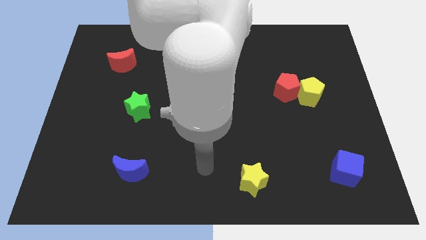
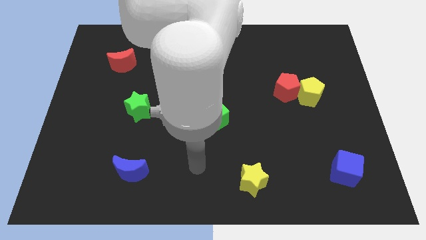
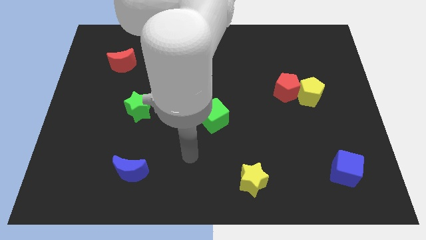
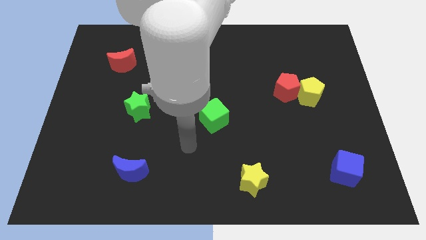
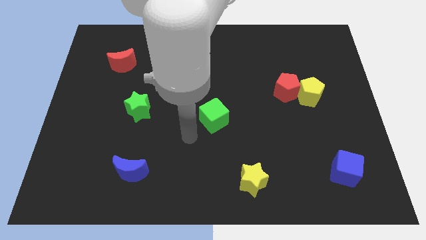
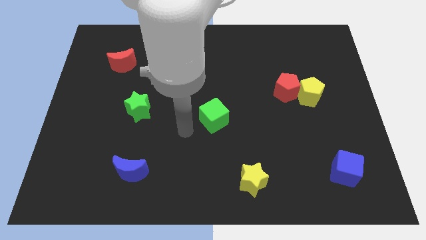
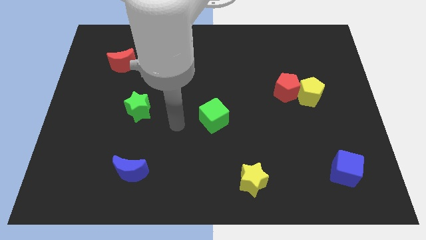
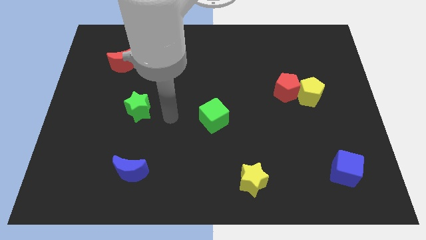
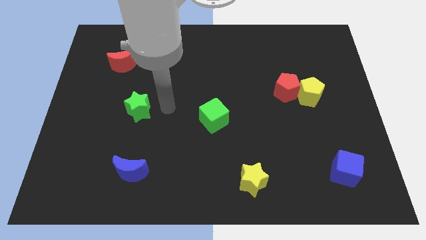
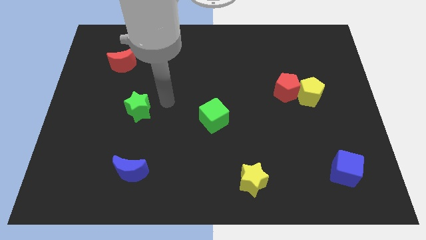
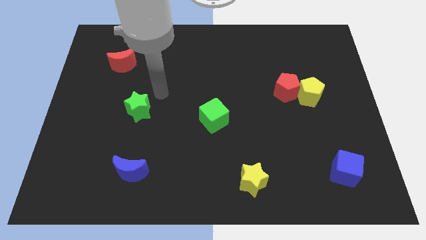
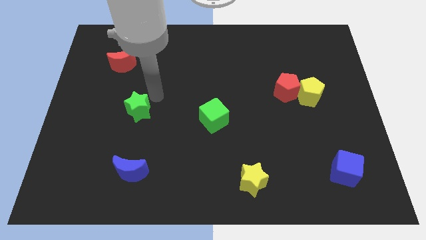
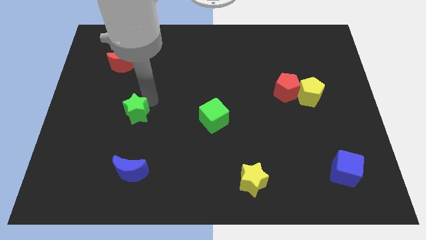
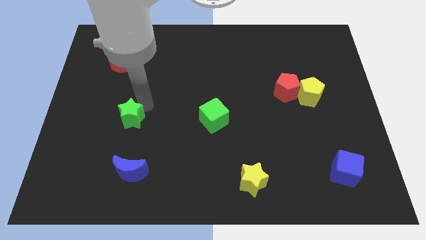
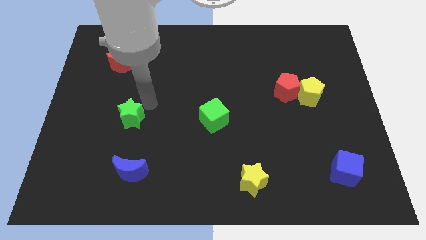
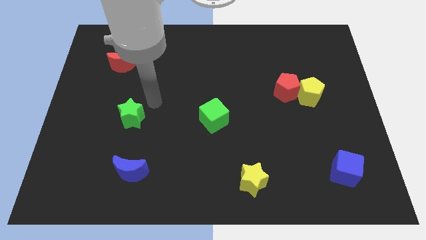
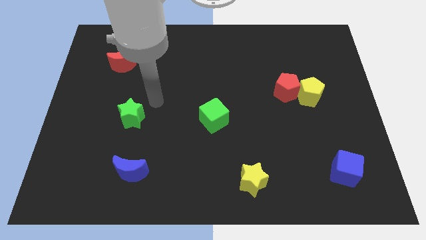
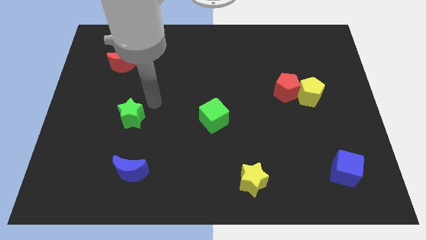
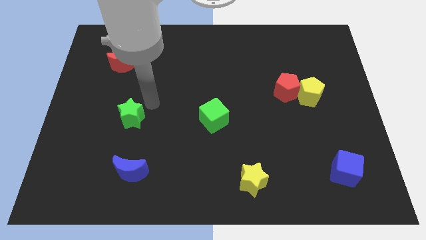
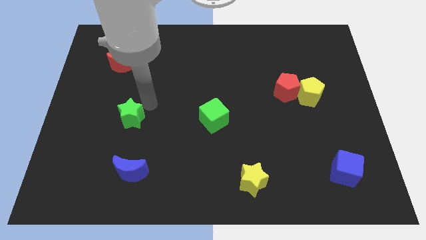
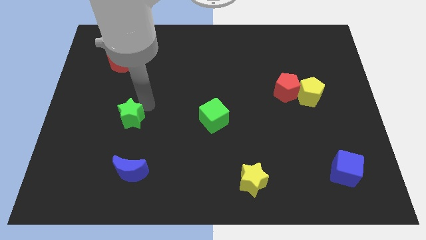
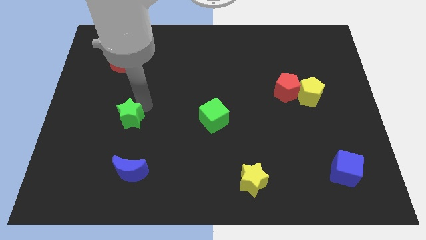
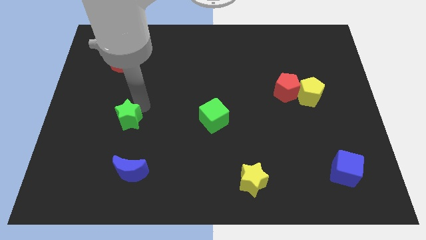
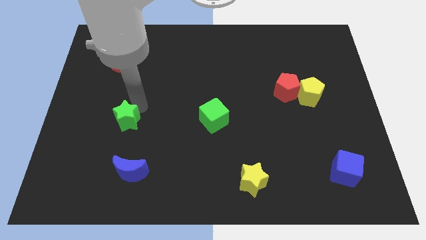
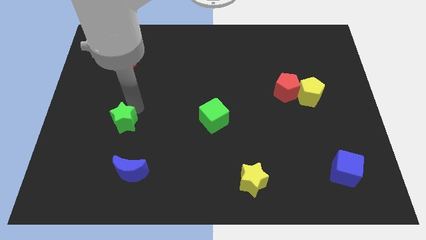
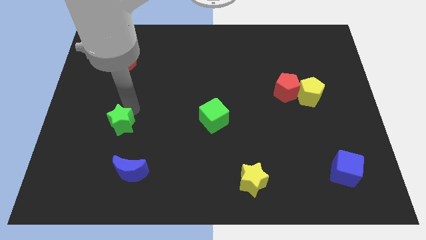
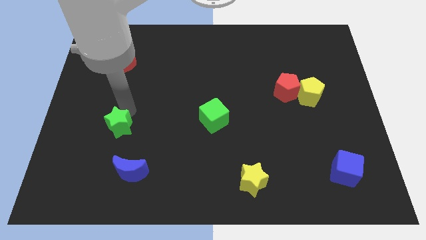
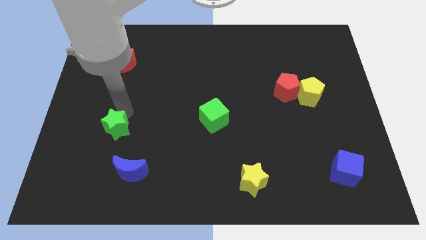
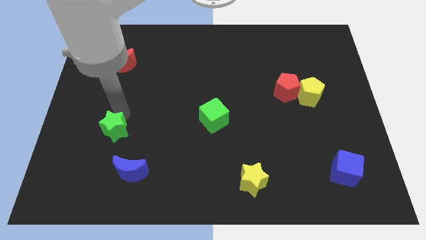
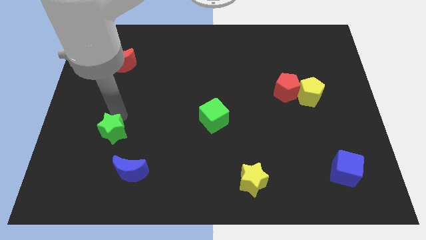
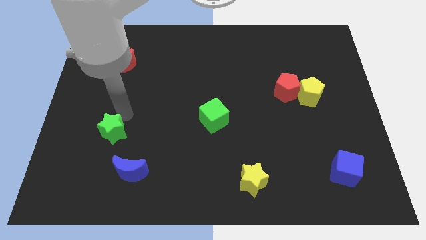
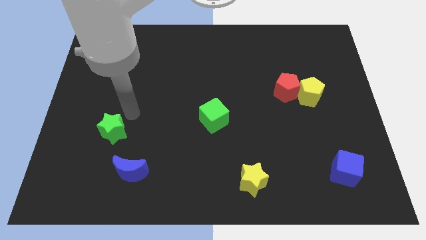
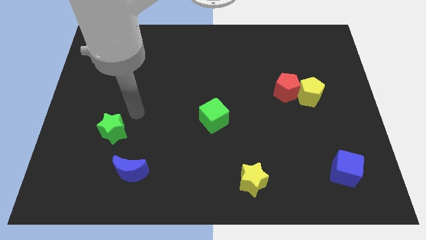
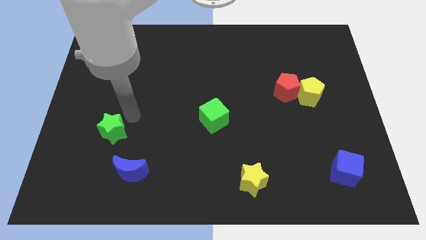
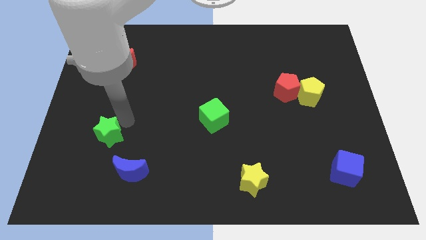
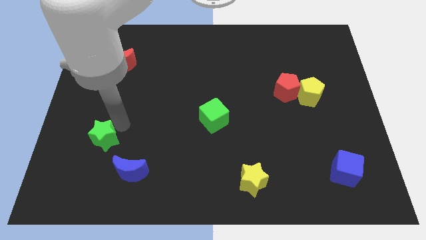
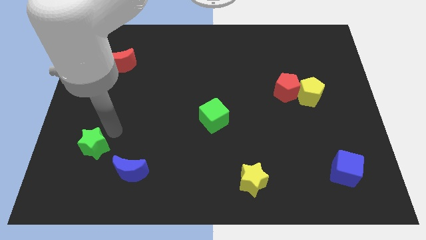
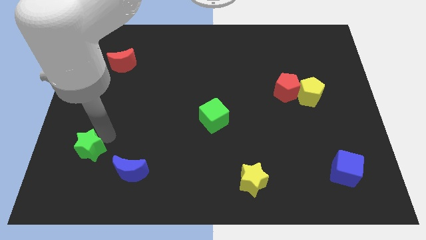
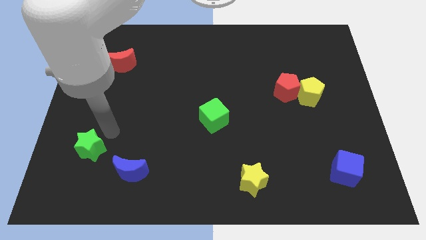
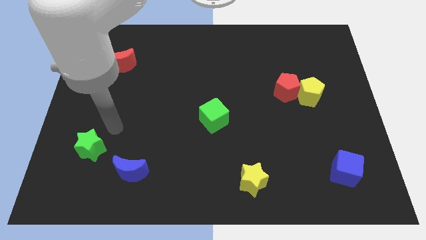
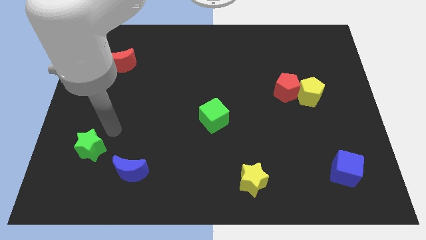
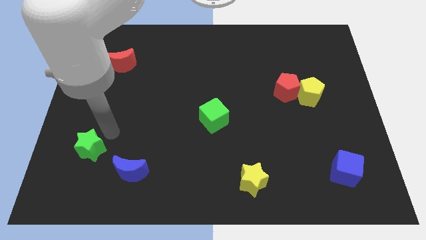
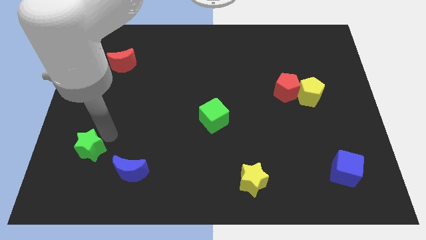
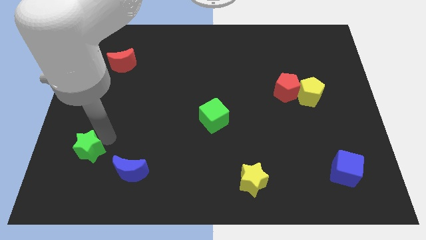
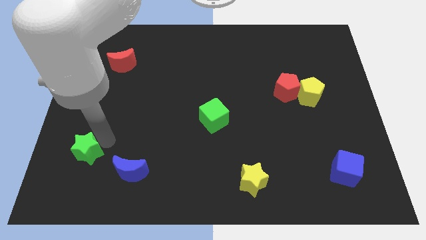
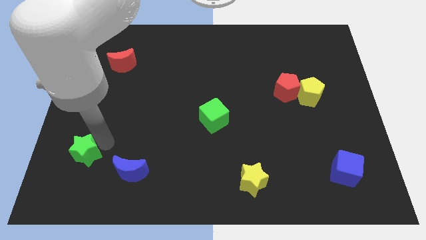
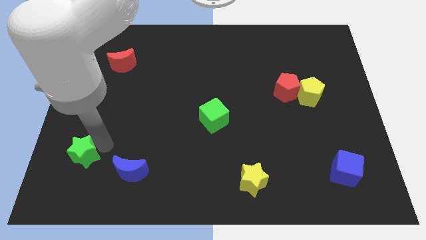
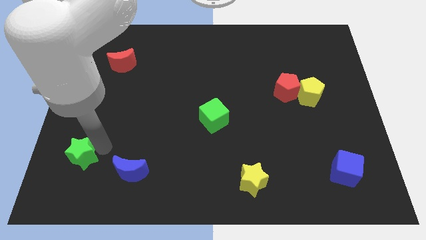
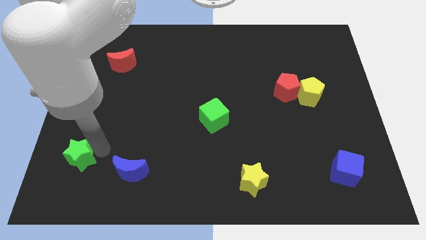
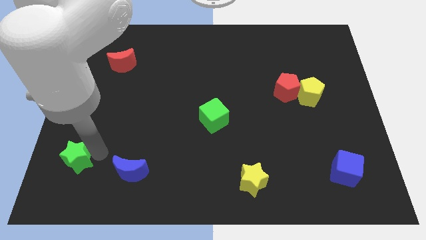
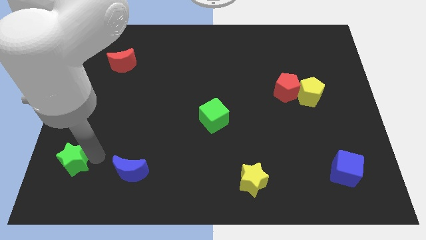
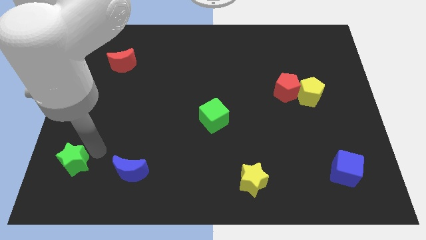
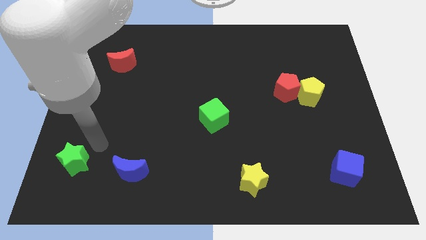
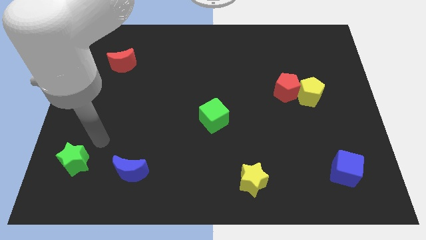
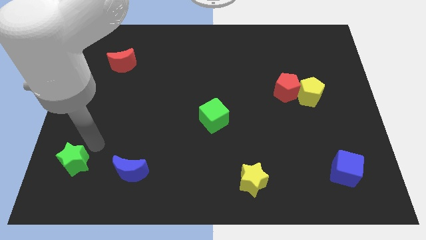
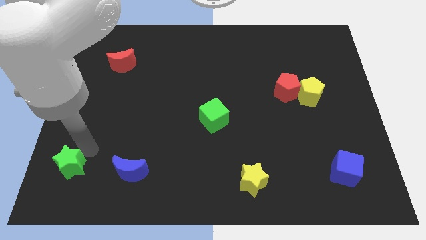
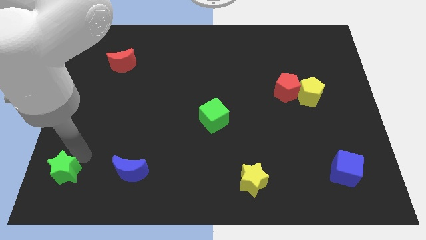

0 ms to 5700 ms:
move the green star to the bottom left of the board

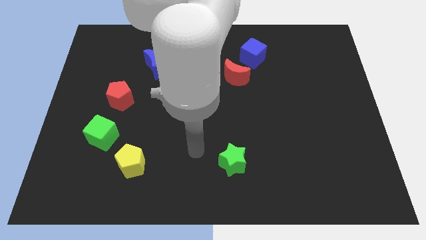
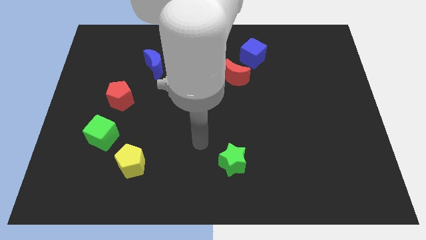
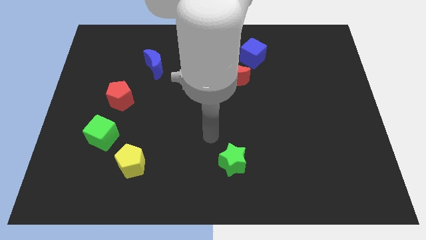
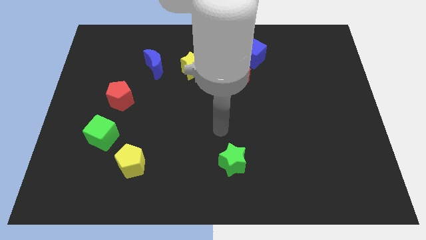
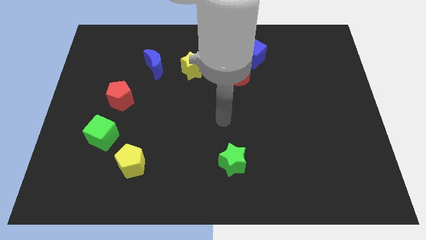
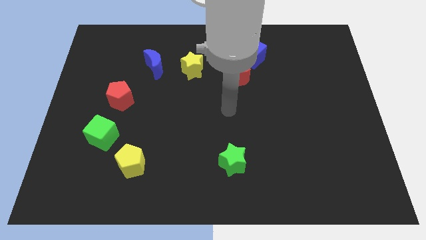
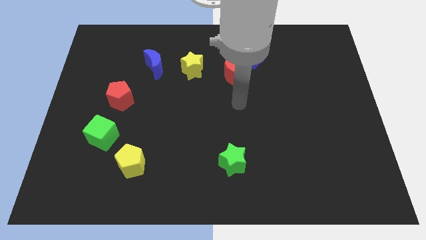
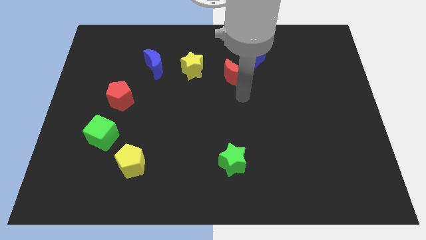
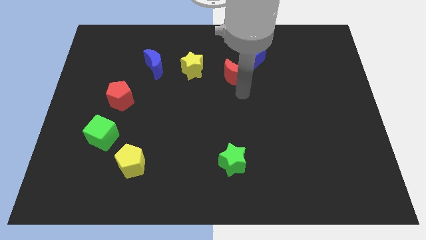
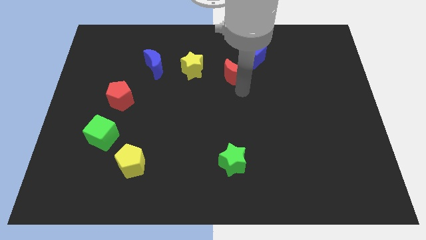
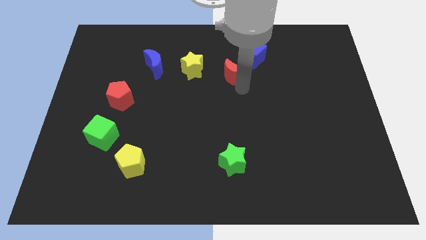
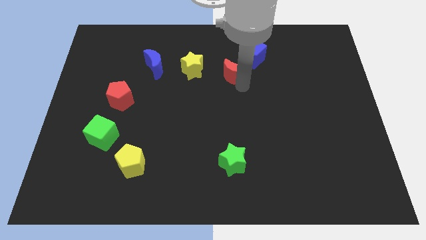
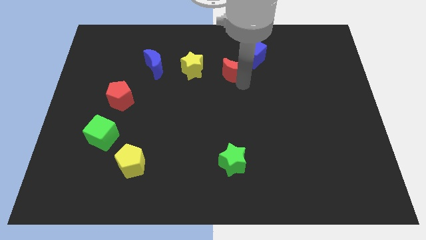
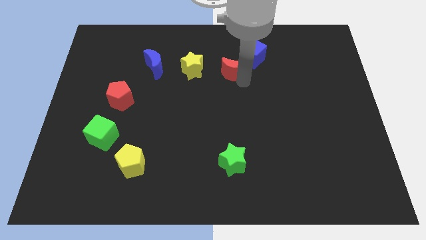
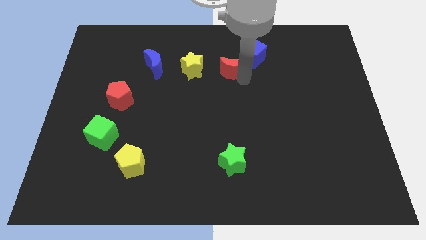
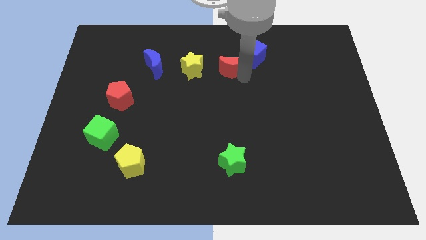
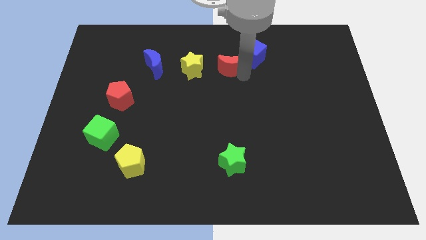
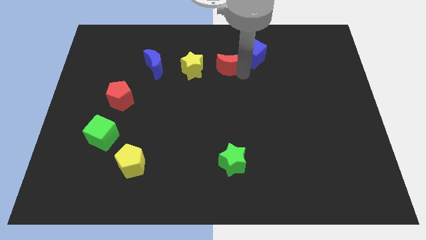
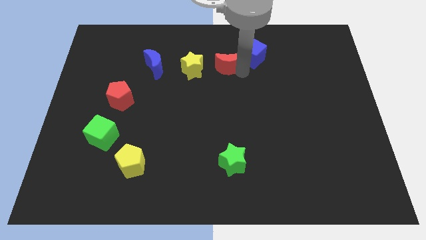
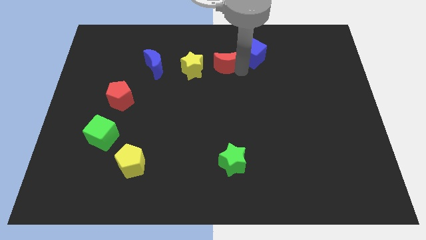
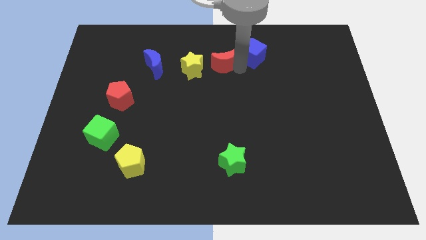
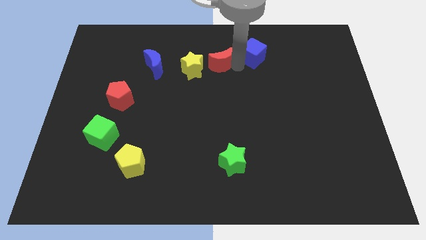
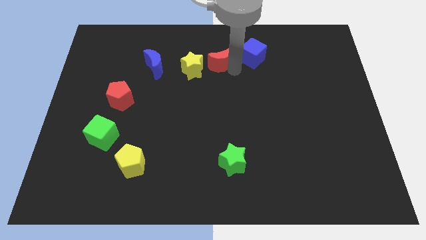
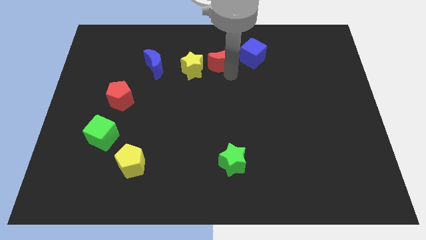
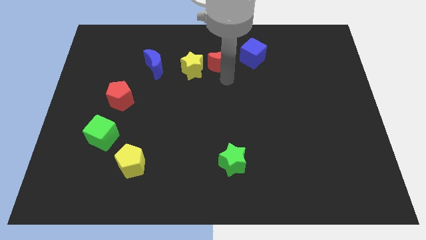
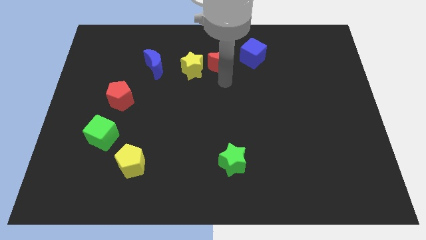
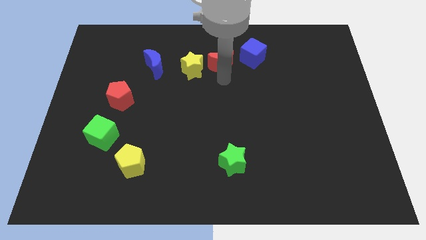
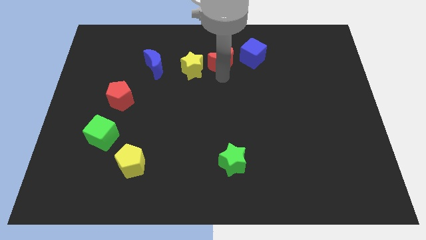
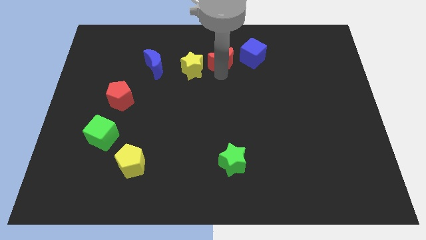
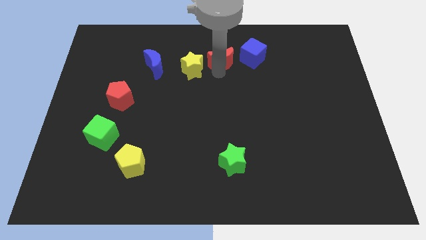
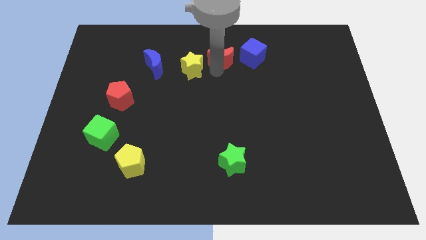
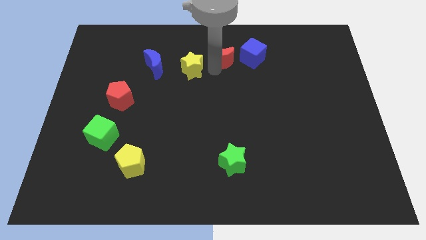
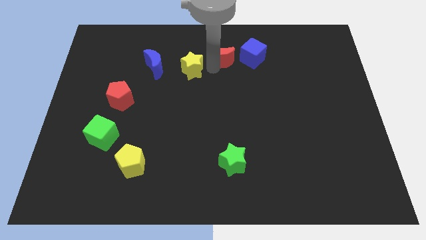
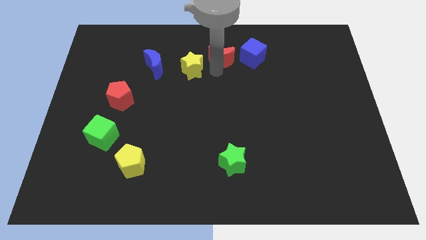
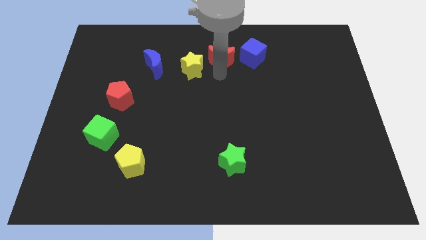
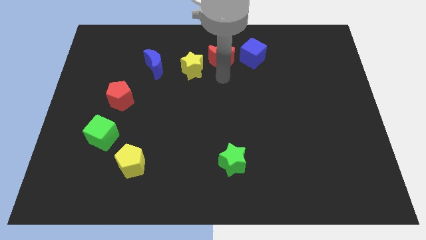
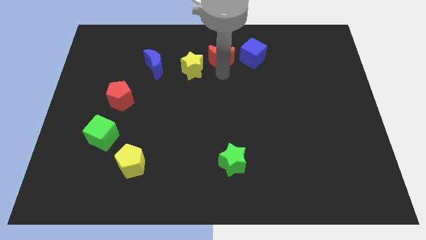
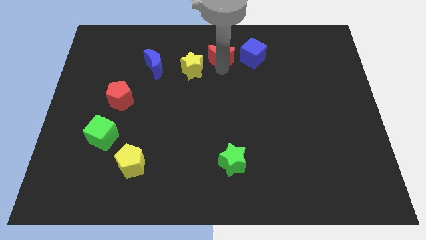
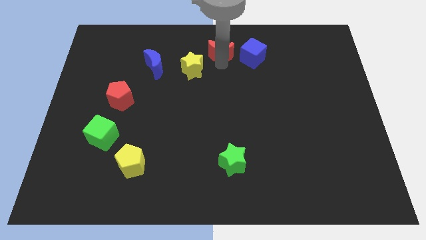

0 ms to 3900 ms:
move the red moon to the top
